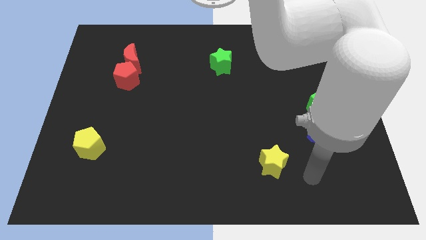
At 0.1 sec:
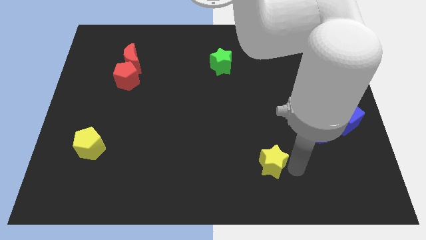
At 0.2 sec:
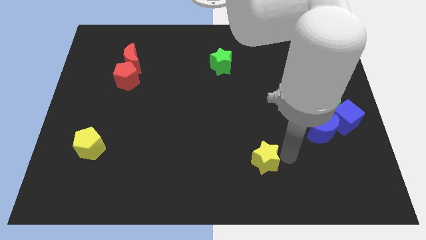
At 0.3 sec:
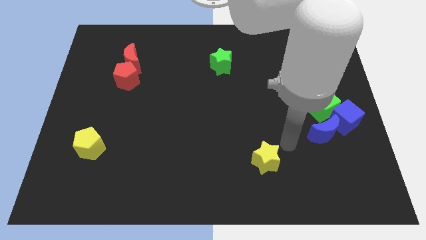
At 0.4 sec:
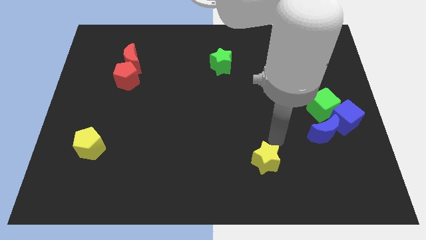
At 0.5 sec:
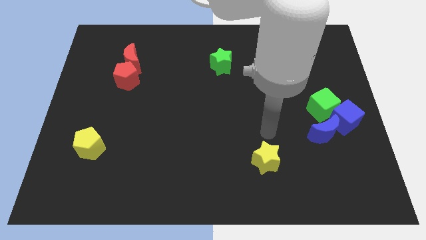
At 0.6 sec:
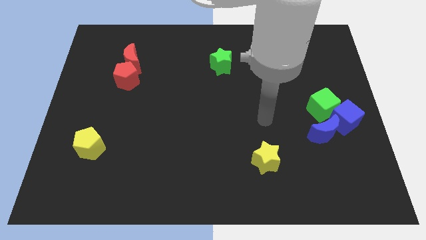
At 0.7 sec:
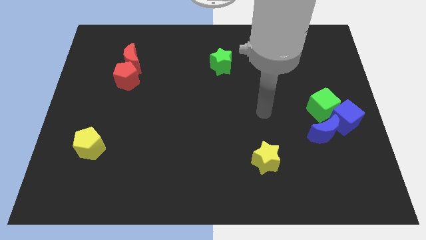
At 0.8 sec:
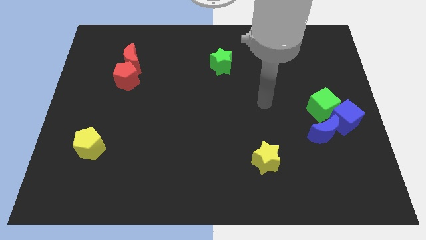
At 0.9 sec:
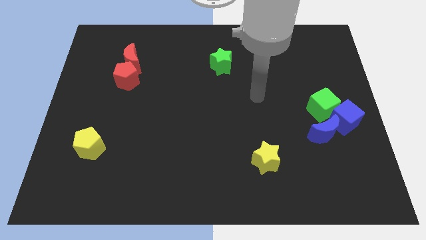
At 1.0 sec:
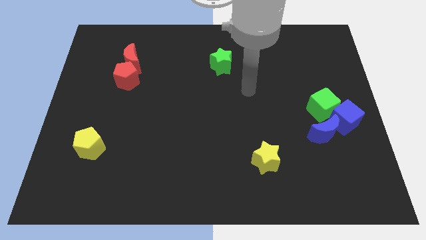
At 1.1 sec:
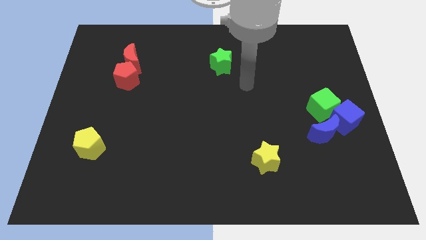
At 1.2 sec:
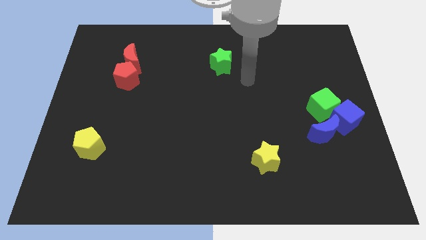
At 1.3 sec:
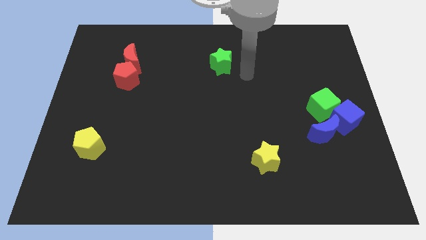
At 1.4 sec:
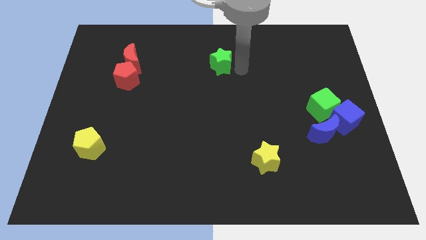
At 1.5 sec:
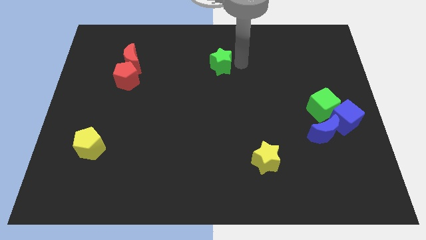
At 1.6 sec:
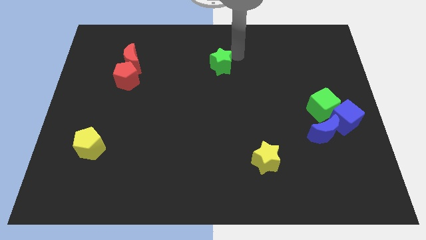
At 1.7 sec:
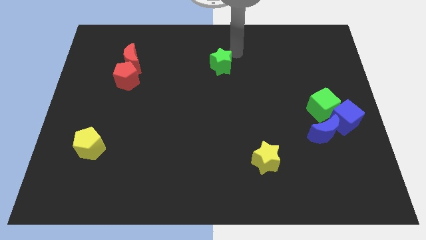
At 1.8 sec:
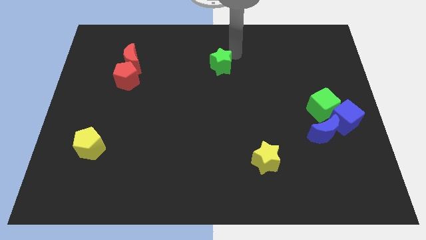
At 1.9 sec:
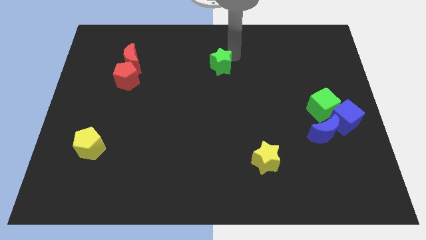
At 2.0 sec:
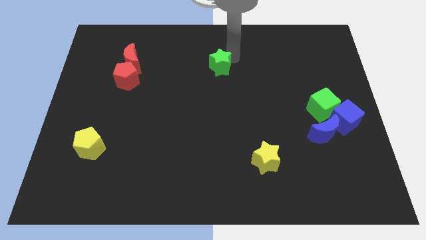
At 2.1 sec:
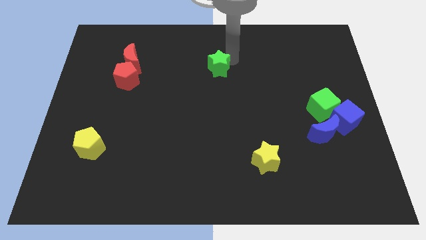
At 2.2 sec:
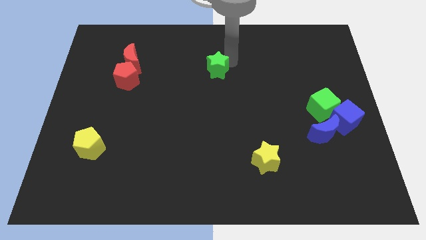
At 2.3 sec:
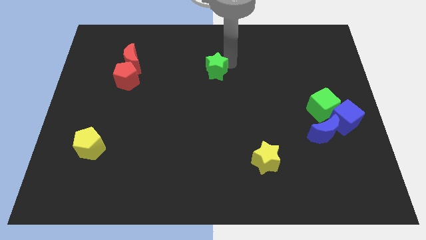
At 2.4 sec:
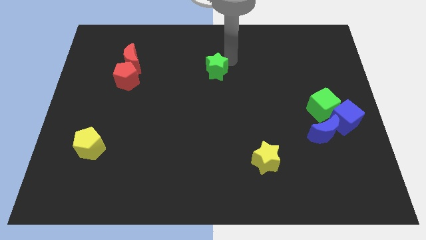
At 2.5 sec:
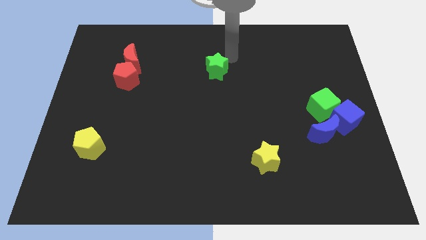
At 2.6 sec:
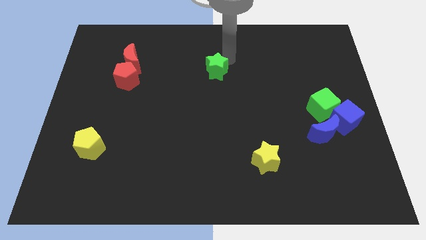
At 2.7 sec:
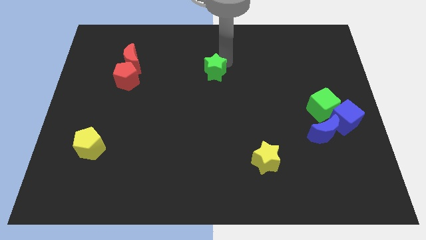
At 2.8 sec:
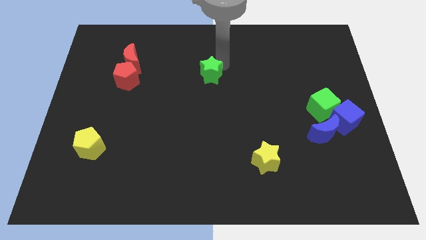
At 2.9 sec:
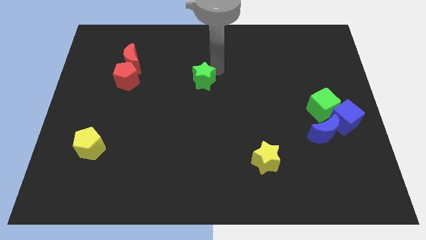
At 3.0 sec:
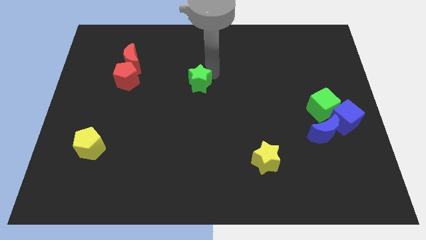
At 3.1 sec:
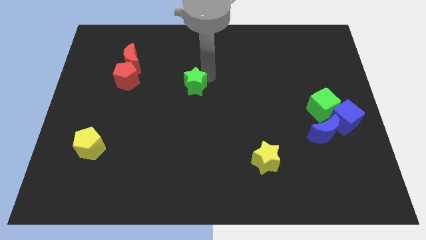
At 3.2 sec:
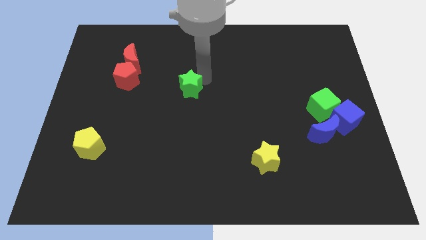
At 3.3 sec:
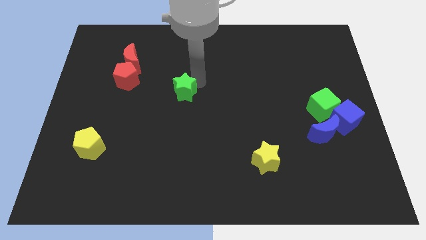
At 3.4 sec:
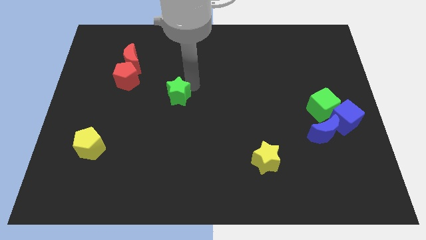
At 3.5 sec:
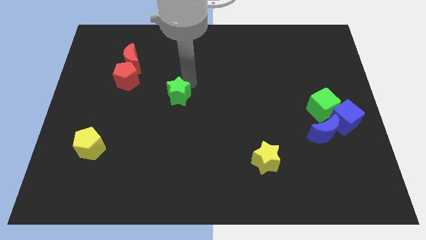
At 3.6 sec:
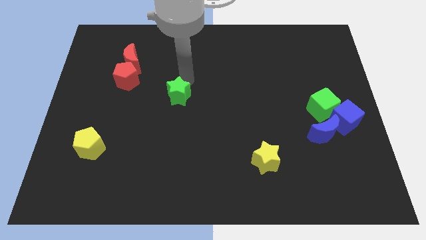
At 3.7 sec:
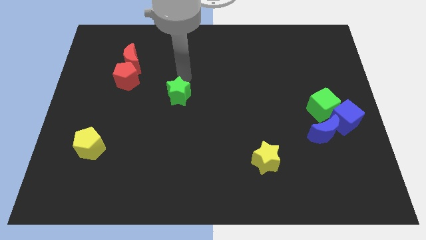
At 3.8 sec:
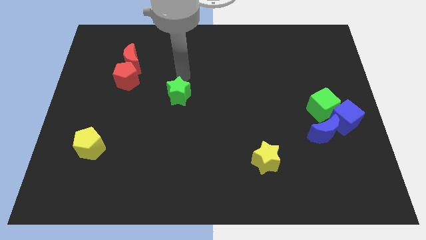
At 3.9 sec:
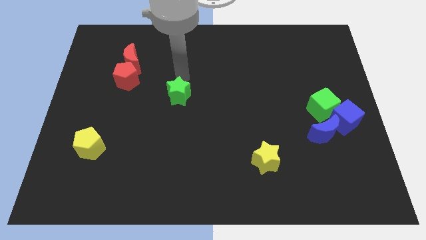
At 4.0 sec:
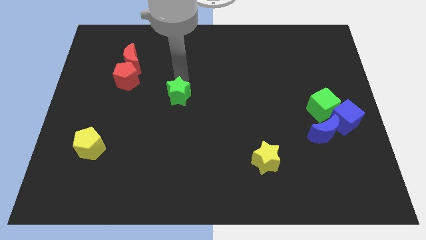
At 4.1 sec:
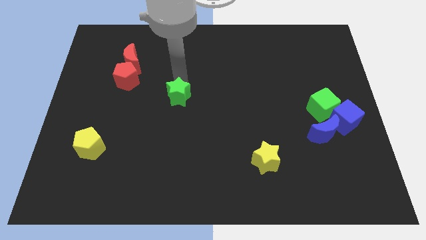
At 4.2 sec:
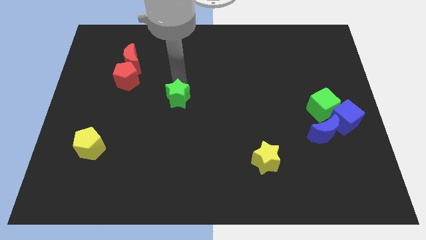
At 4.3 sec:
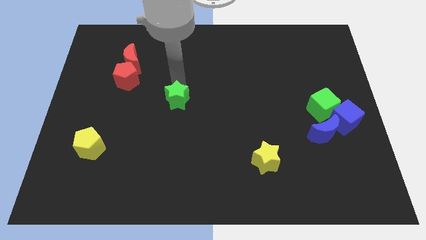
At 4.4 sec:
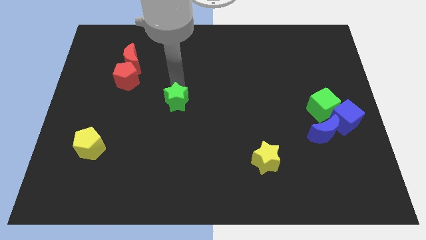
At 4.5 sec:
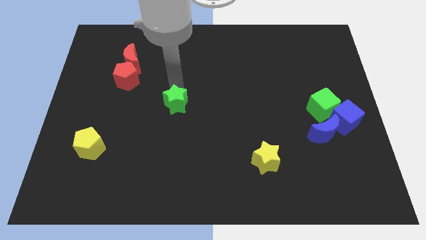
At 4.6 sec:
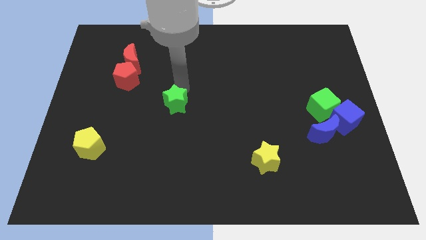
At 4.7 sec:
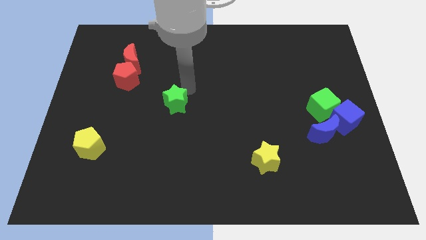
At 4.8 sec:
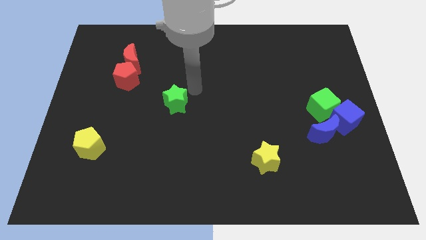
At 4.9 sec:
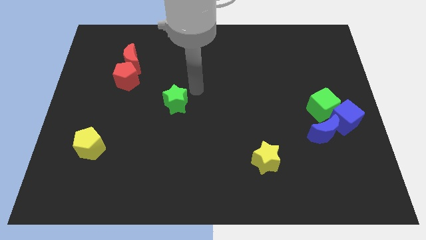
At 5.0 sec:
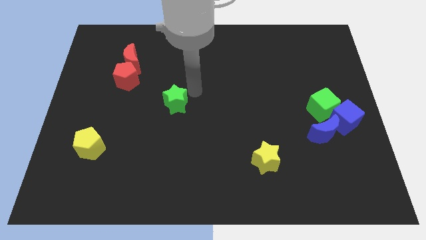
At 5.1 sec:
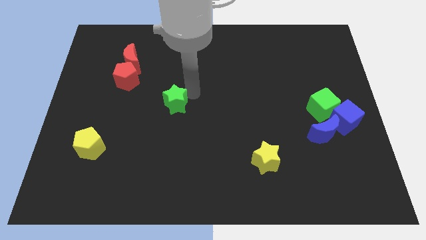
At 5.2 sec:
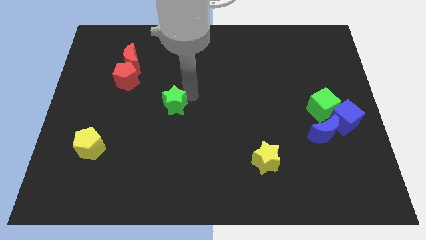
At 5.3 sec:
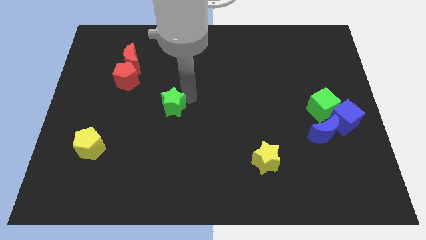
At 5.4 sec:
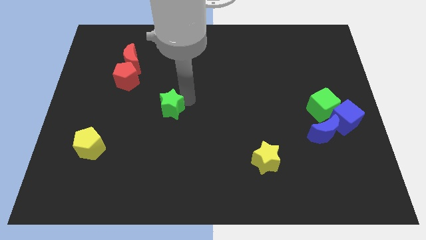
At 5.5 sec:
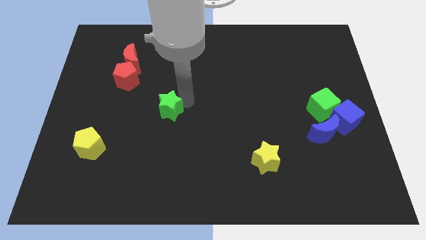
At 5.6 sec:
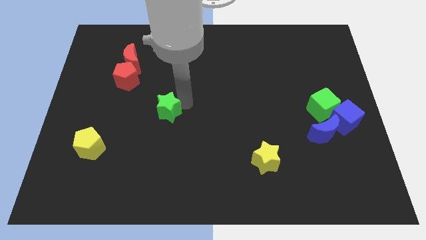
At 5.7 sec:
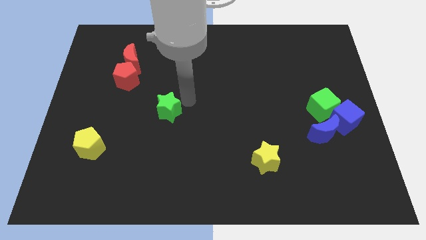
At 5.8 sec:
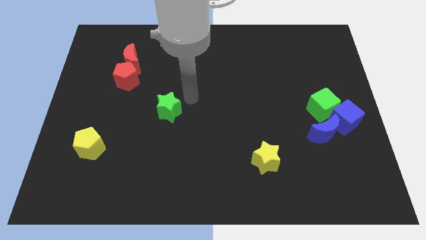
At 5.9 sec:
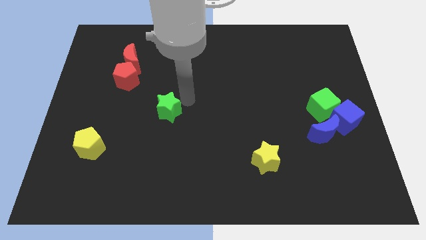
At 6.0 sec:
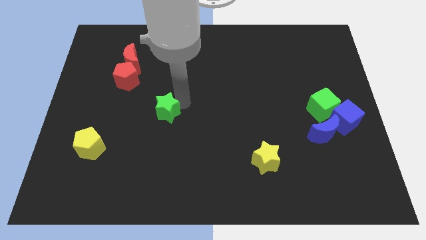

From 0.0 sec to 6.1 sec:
move the green star diagonally downwards and to the left

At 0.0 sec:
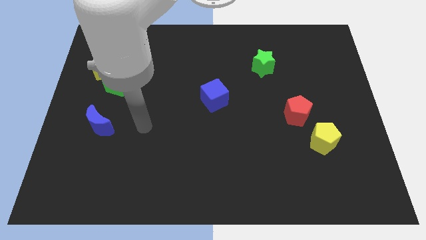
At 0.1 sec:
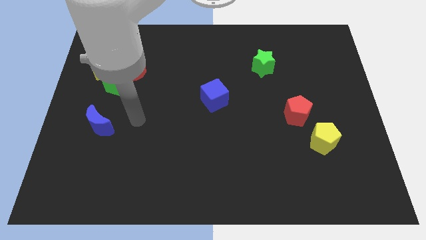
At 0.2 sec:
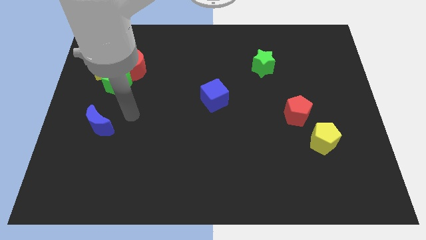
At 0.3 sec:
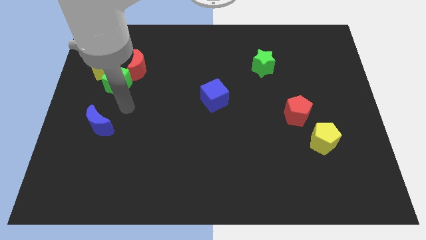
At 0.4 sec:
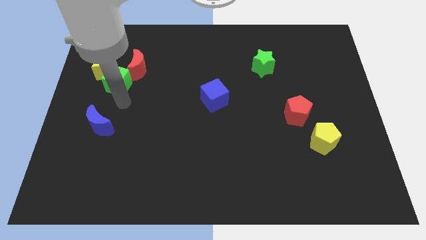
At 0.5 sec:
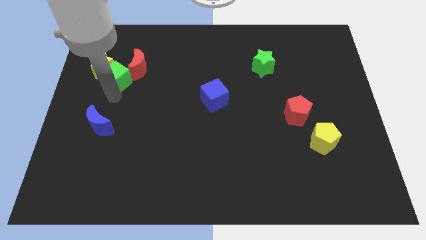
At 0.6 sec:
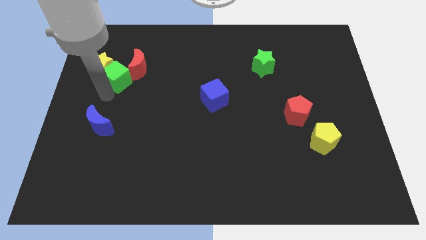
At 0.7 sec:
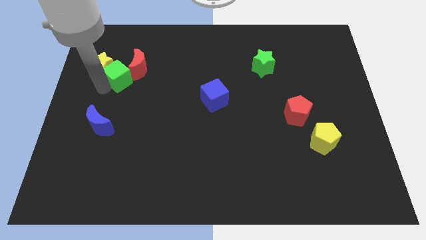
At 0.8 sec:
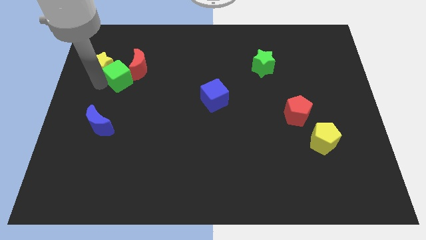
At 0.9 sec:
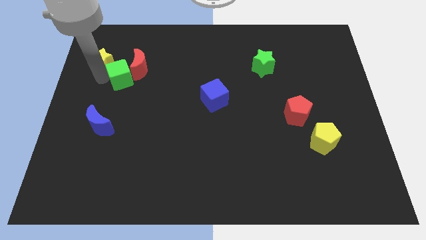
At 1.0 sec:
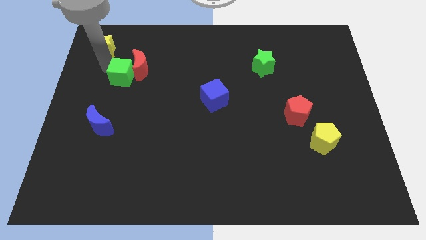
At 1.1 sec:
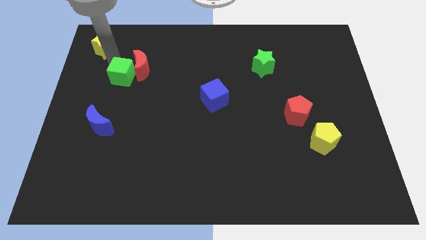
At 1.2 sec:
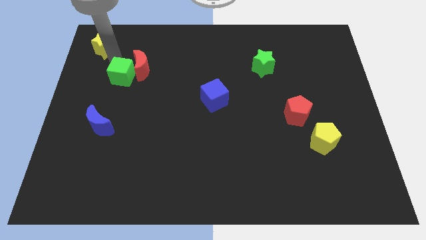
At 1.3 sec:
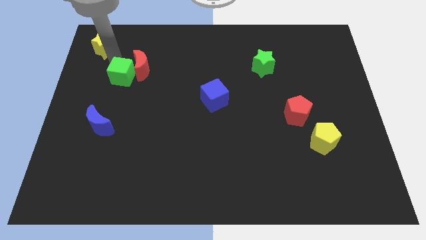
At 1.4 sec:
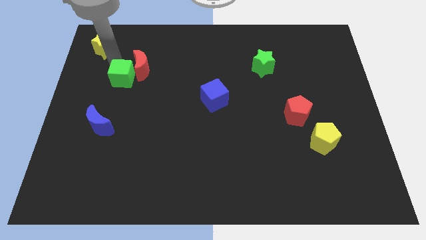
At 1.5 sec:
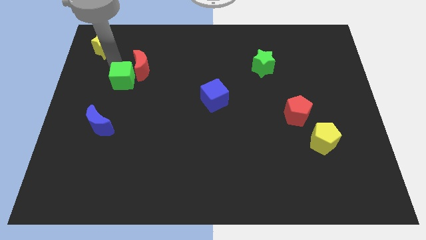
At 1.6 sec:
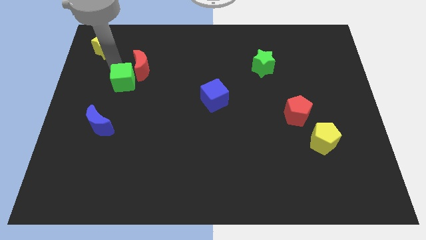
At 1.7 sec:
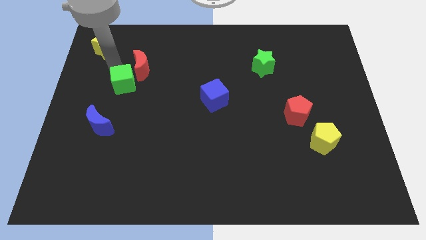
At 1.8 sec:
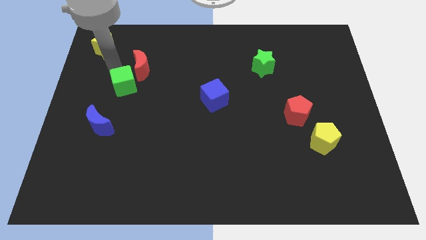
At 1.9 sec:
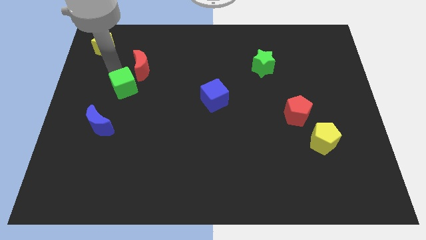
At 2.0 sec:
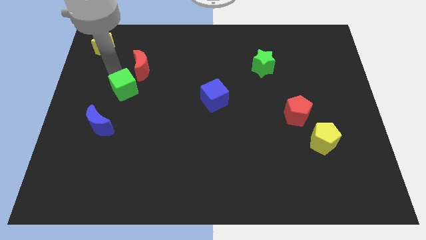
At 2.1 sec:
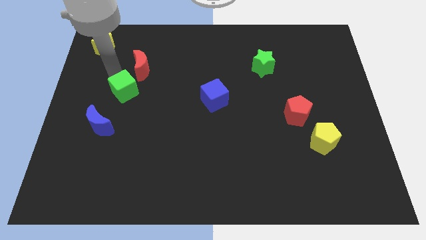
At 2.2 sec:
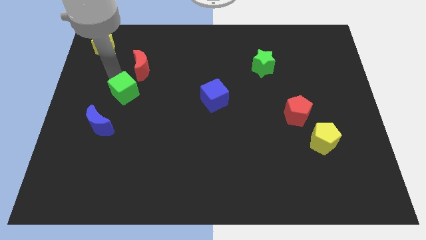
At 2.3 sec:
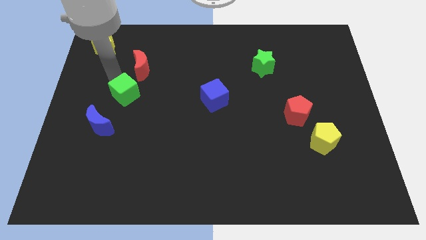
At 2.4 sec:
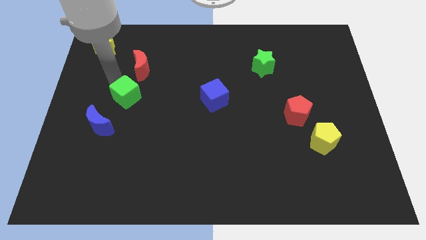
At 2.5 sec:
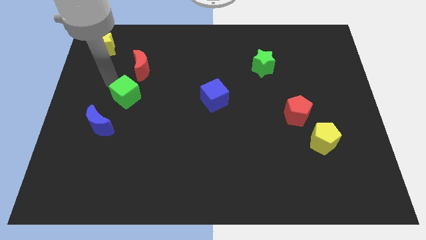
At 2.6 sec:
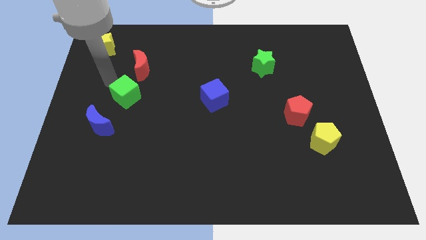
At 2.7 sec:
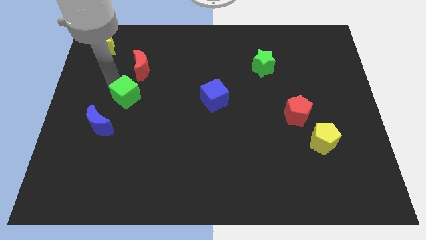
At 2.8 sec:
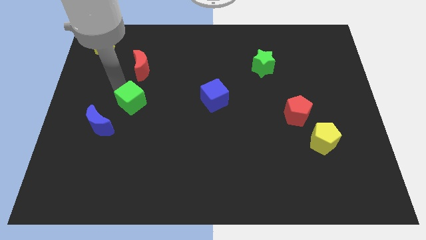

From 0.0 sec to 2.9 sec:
slightly move the green cube down and to the right diagonally
